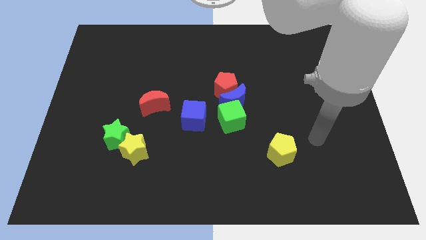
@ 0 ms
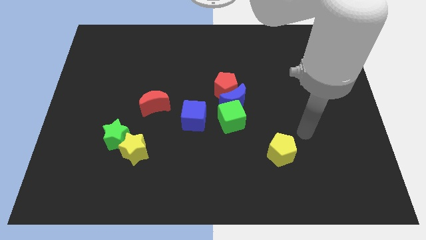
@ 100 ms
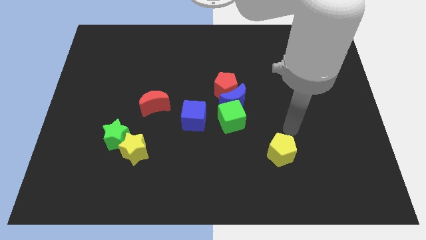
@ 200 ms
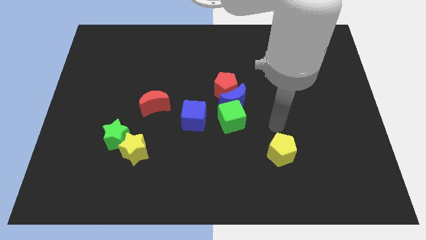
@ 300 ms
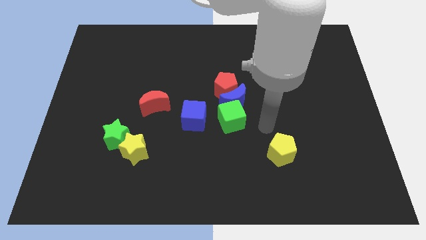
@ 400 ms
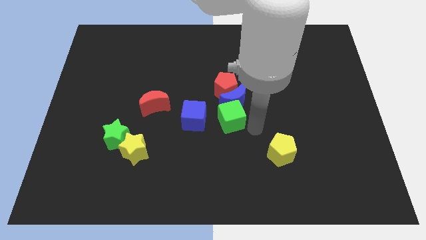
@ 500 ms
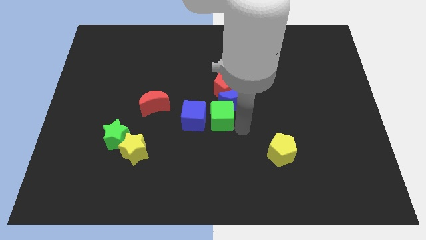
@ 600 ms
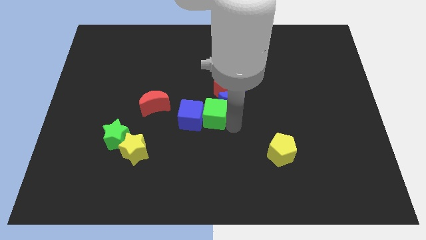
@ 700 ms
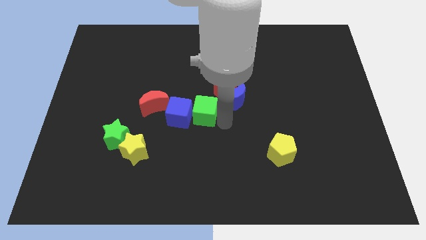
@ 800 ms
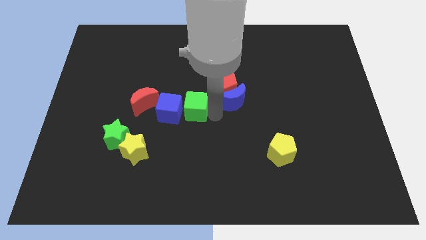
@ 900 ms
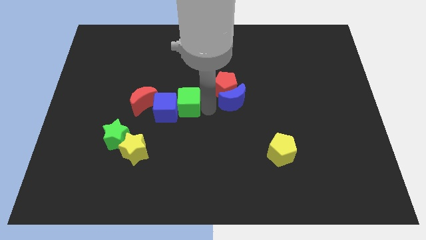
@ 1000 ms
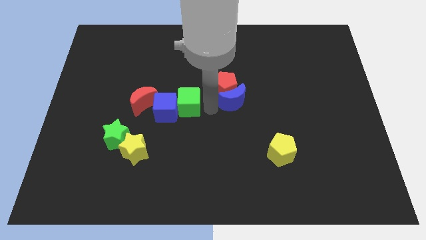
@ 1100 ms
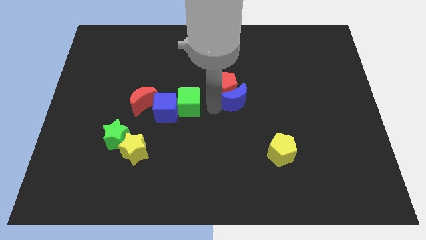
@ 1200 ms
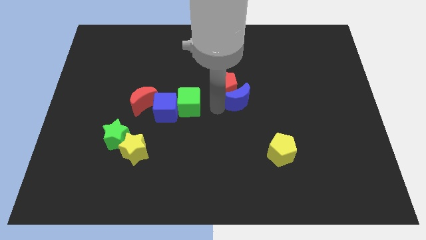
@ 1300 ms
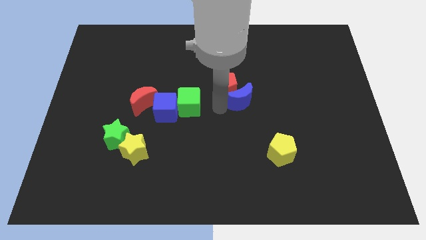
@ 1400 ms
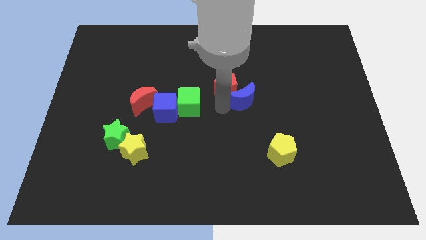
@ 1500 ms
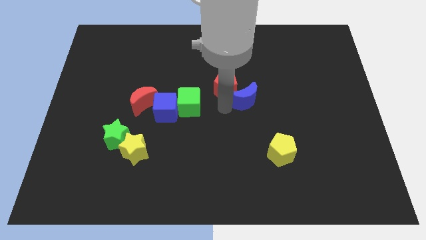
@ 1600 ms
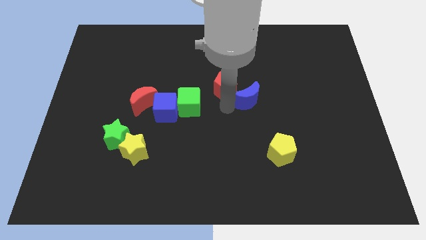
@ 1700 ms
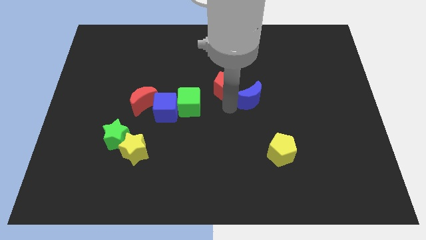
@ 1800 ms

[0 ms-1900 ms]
pull the blue moon apart from the red pentagon and green cube

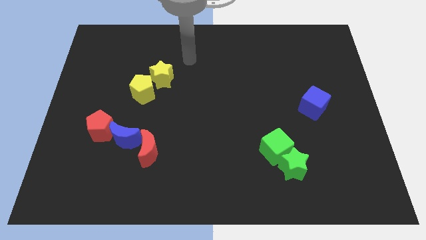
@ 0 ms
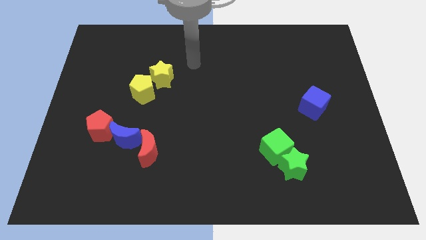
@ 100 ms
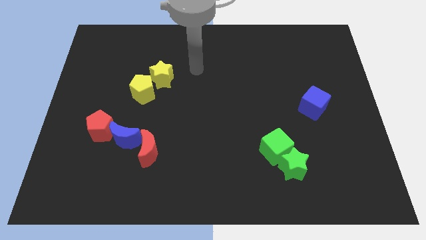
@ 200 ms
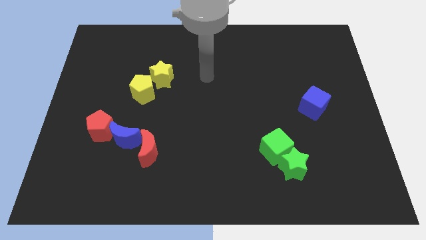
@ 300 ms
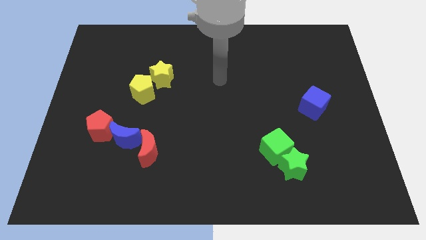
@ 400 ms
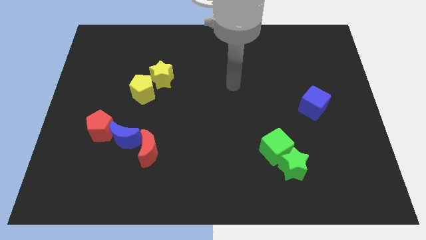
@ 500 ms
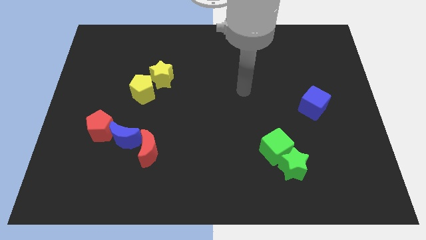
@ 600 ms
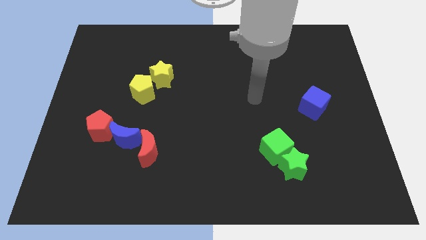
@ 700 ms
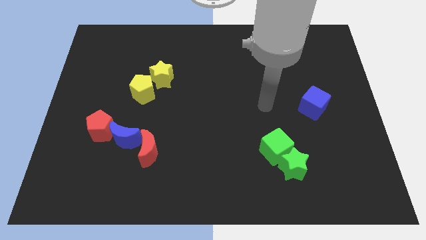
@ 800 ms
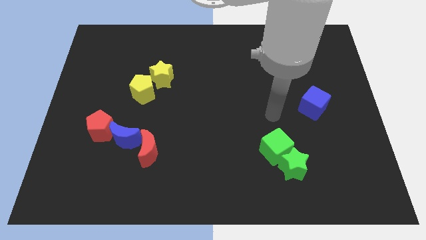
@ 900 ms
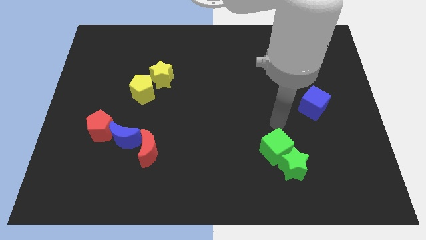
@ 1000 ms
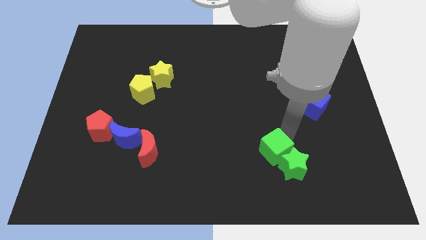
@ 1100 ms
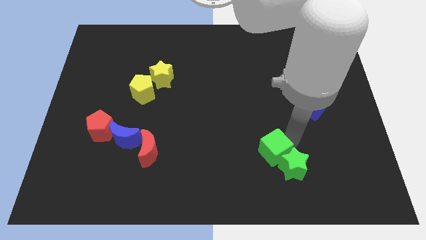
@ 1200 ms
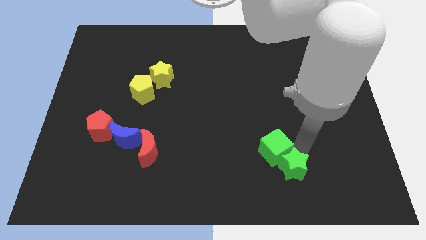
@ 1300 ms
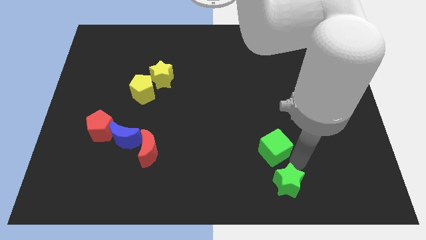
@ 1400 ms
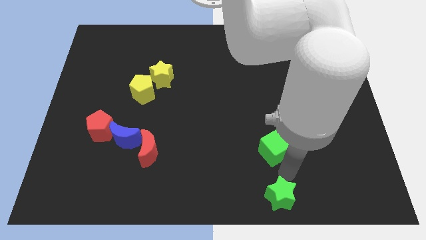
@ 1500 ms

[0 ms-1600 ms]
pull the green cube apart from the green star

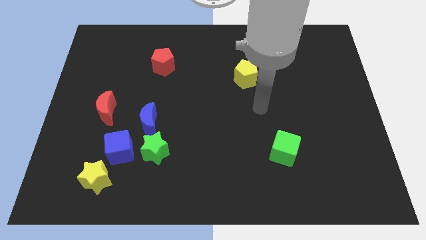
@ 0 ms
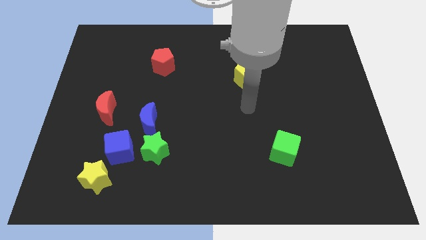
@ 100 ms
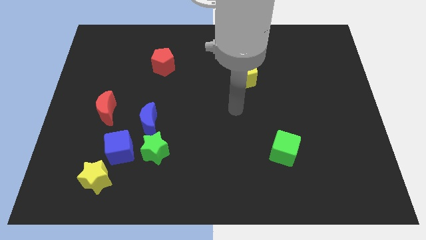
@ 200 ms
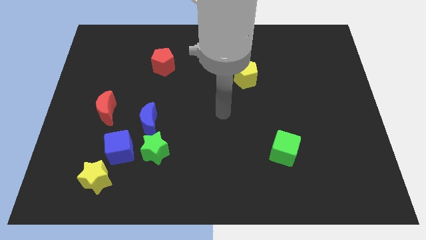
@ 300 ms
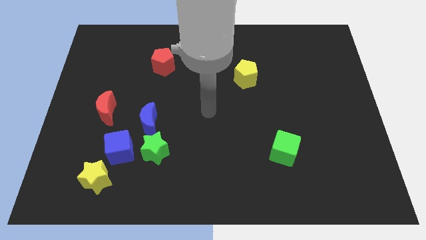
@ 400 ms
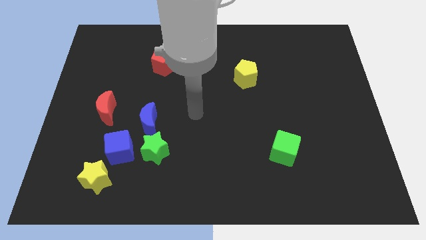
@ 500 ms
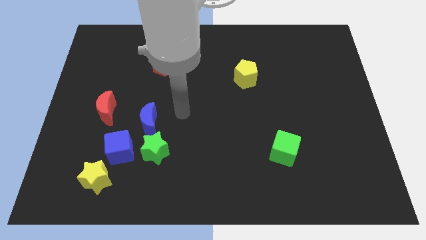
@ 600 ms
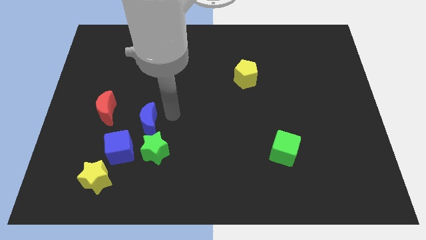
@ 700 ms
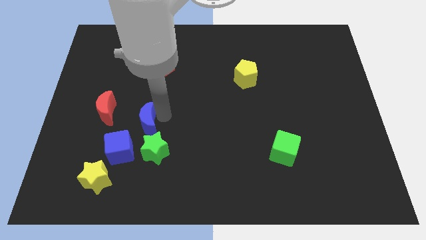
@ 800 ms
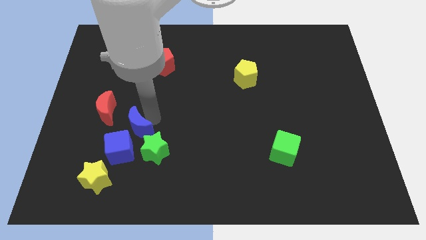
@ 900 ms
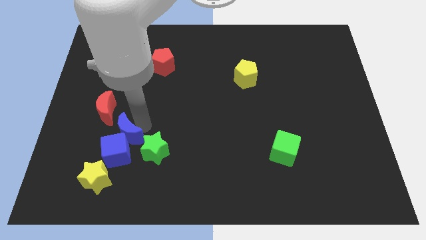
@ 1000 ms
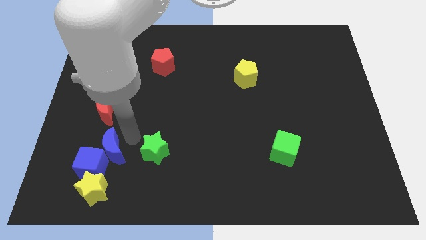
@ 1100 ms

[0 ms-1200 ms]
pull the green star apart from the blue moon and blue cube

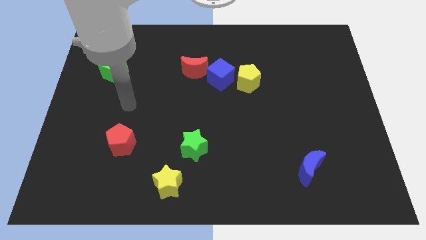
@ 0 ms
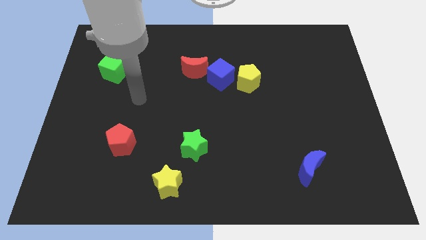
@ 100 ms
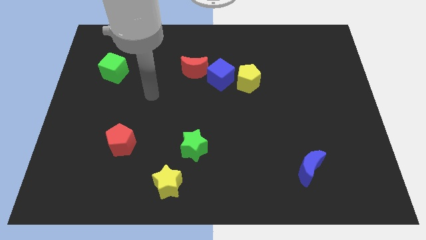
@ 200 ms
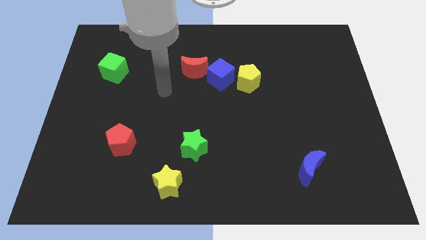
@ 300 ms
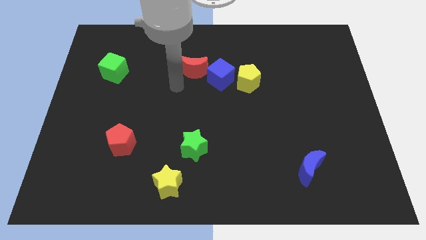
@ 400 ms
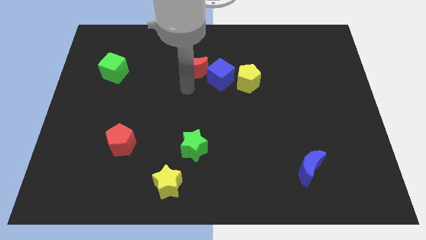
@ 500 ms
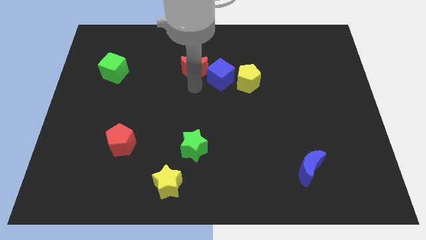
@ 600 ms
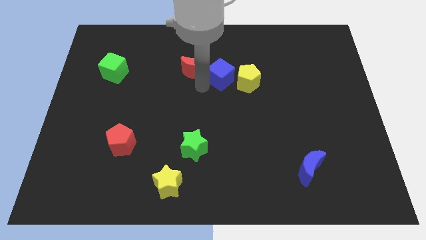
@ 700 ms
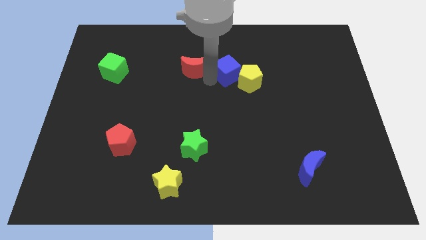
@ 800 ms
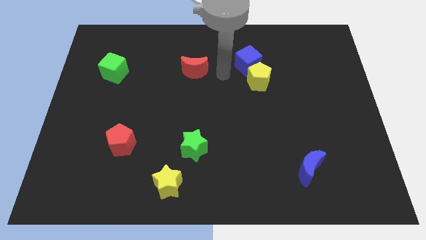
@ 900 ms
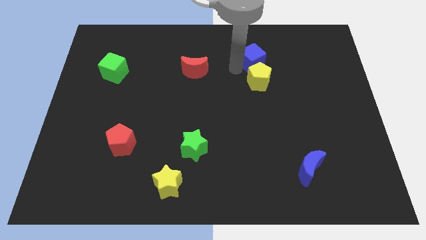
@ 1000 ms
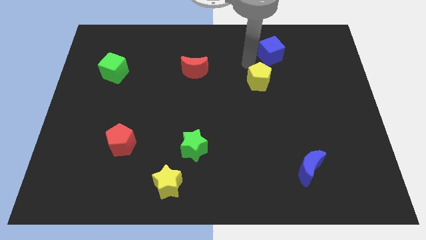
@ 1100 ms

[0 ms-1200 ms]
separate the yellow pentagon from the blue cube

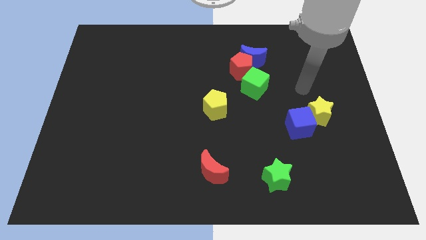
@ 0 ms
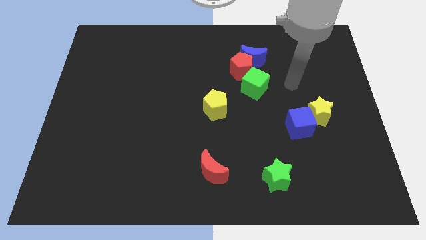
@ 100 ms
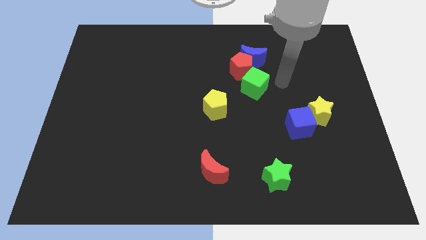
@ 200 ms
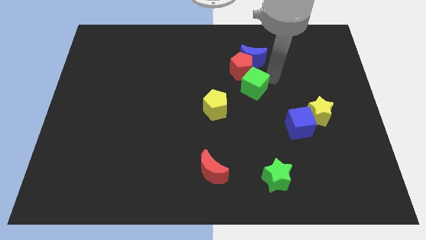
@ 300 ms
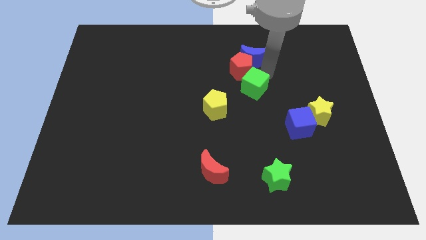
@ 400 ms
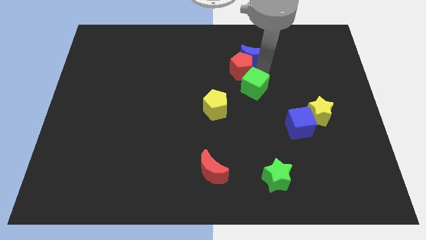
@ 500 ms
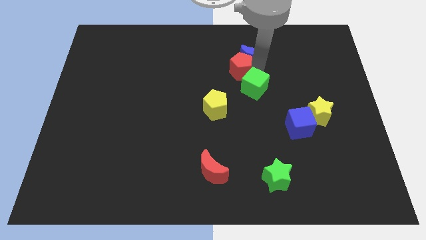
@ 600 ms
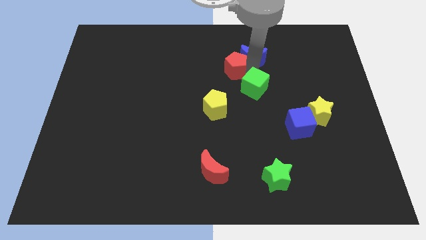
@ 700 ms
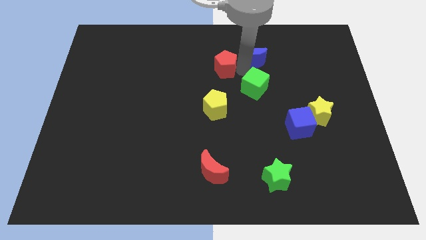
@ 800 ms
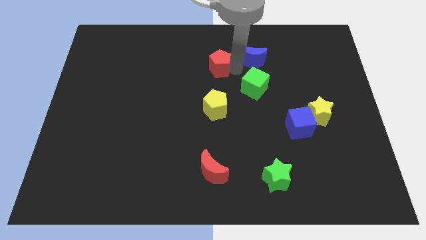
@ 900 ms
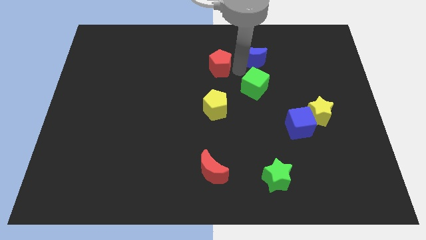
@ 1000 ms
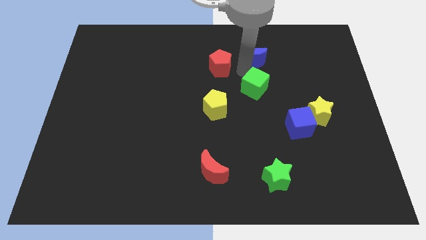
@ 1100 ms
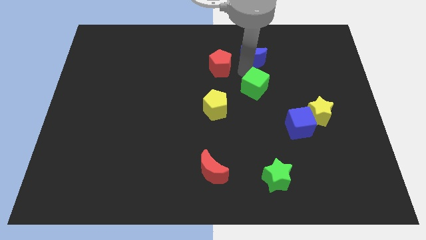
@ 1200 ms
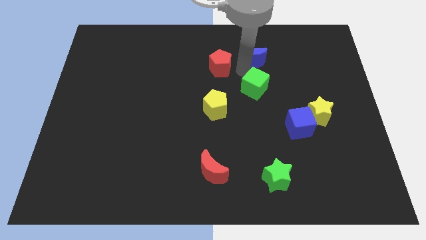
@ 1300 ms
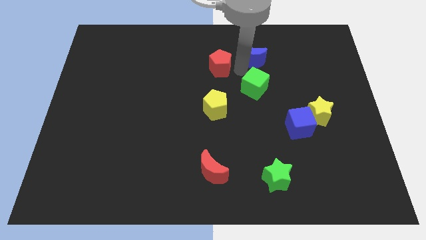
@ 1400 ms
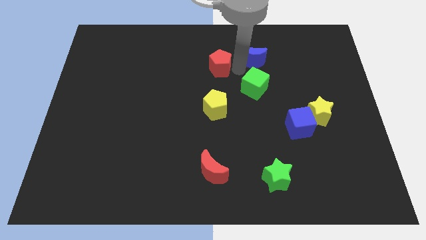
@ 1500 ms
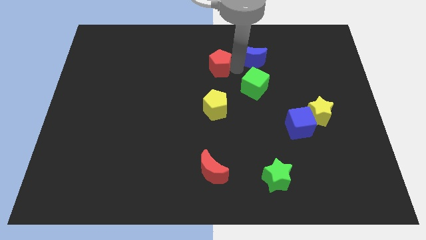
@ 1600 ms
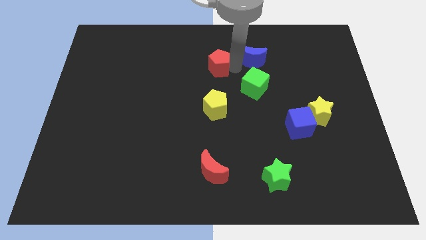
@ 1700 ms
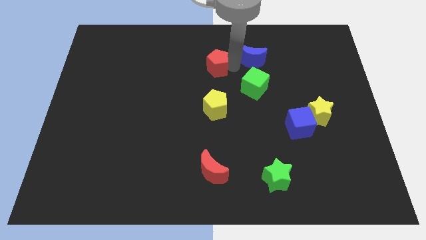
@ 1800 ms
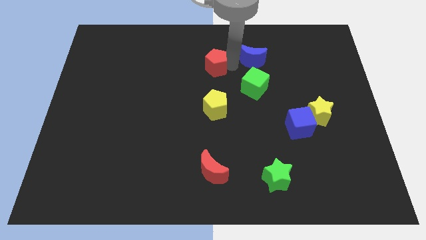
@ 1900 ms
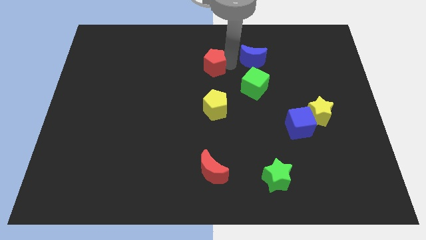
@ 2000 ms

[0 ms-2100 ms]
pull the red pentagon apart from the blue moon and green cube

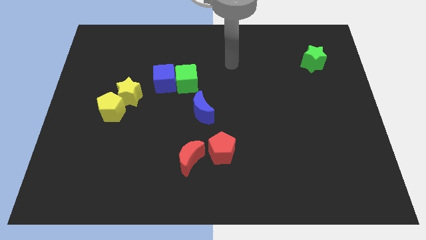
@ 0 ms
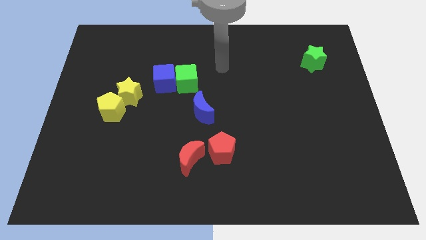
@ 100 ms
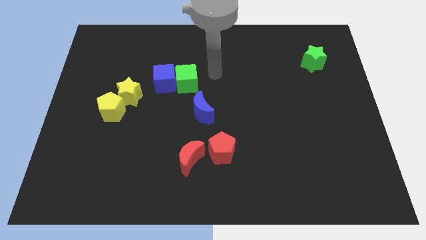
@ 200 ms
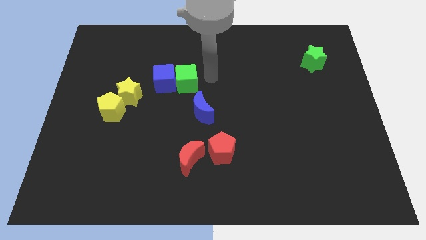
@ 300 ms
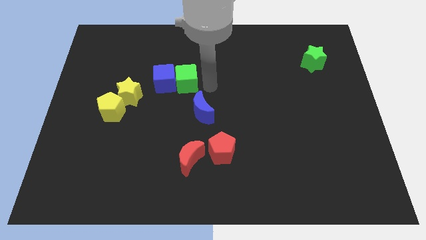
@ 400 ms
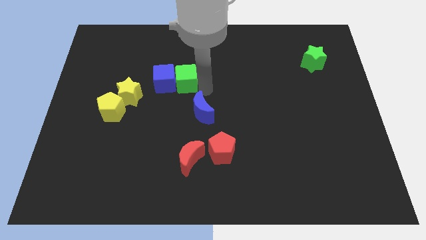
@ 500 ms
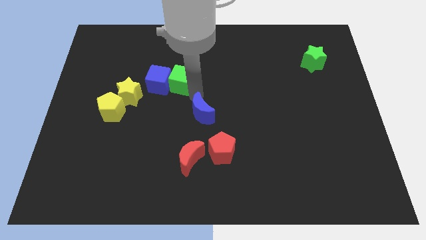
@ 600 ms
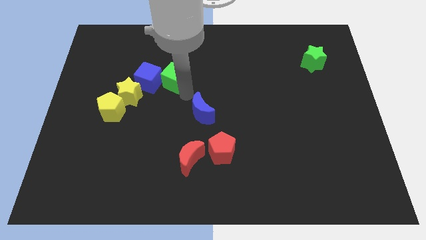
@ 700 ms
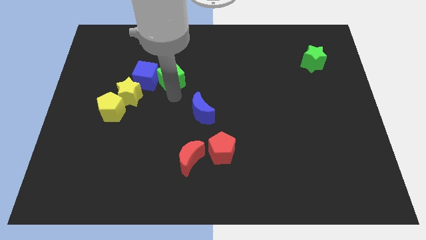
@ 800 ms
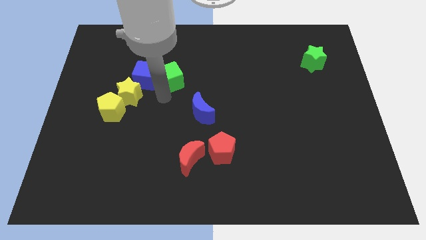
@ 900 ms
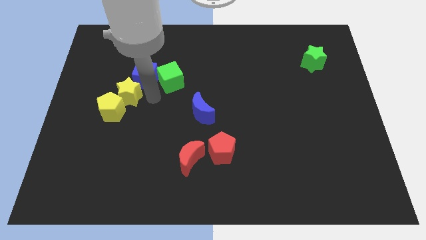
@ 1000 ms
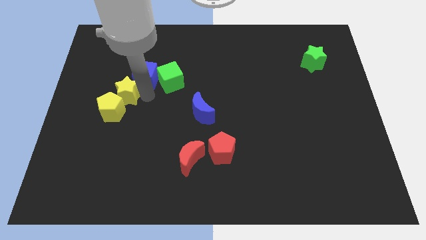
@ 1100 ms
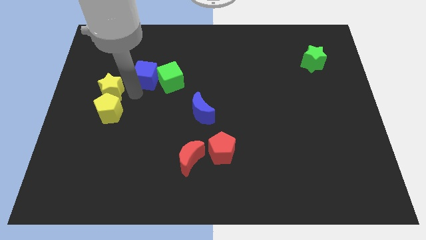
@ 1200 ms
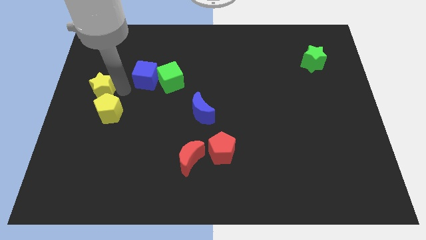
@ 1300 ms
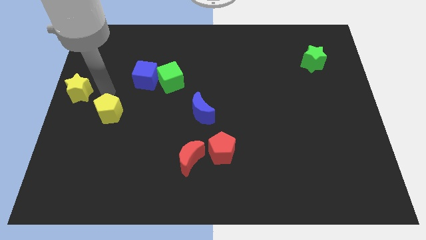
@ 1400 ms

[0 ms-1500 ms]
move the yellow pentagon away from the yellow star
